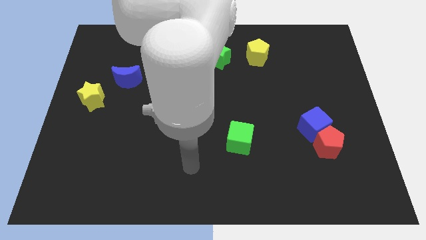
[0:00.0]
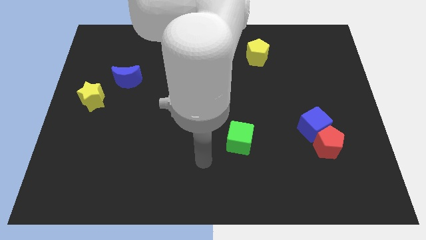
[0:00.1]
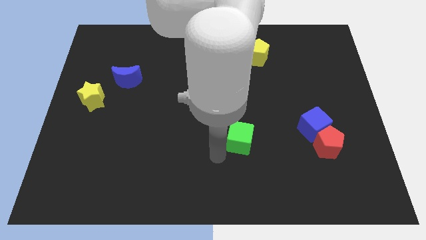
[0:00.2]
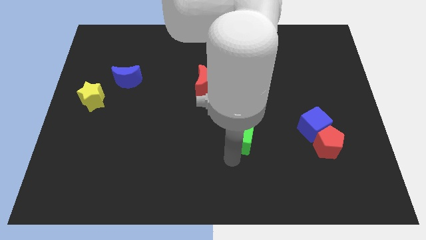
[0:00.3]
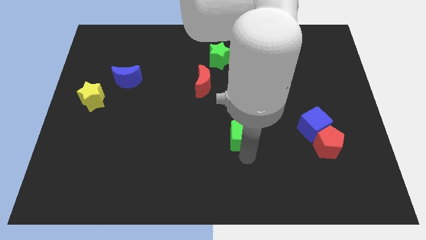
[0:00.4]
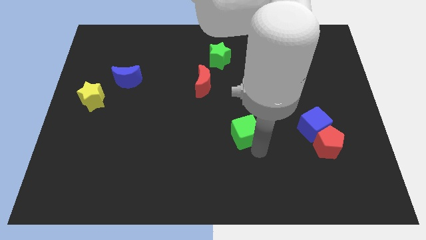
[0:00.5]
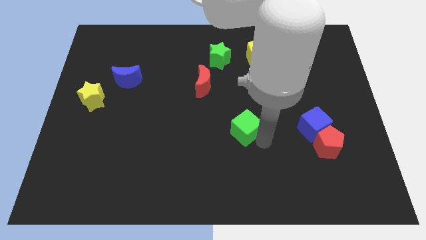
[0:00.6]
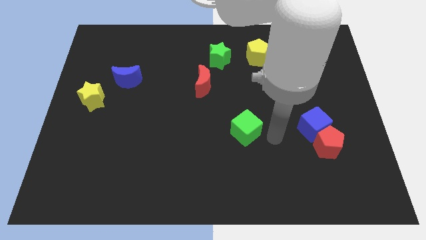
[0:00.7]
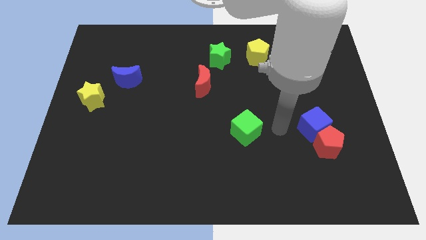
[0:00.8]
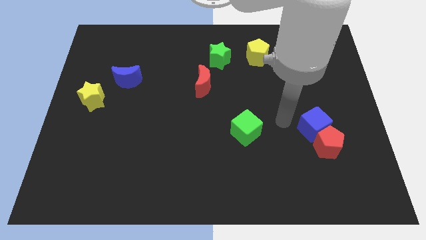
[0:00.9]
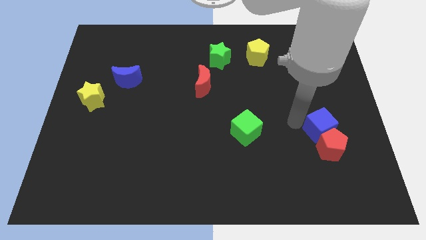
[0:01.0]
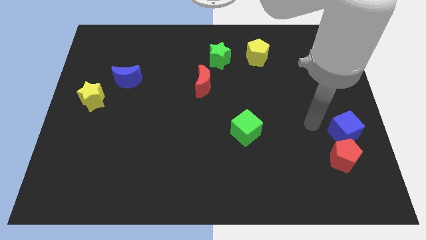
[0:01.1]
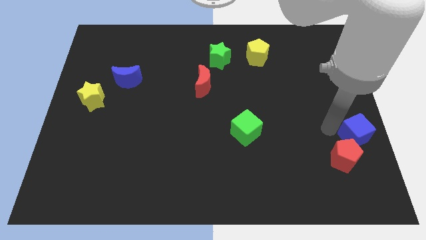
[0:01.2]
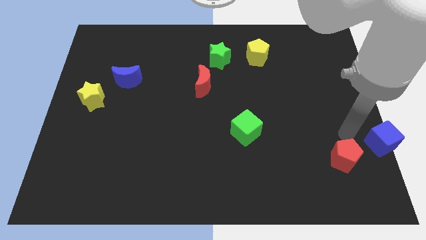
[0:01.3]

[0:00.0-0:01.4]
move the red pentagon away from the blue cube

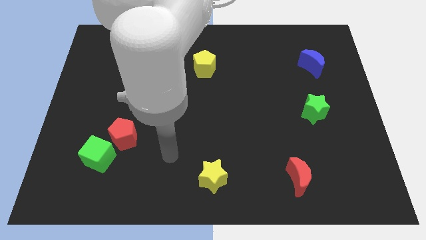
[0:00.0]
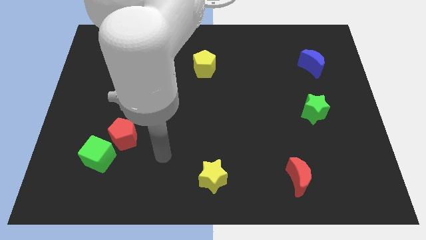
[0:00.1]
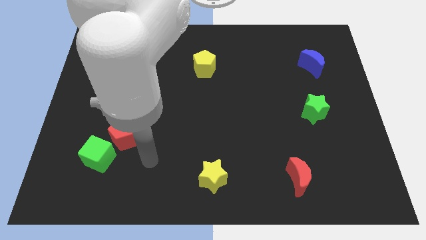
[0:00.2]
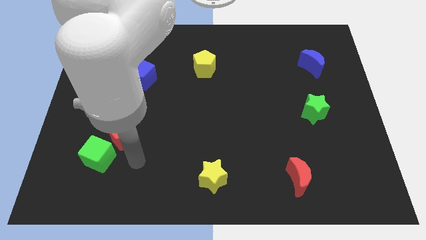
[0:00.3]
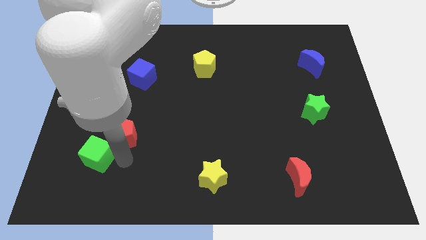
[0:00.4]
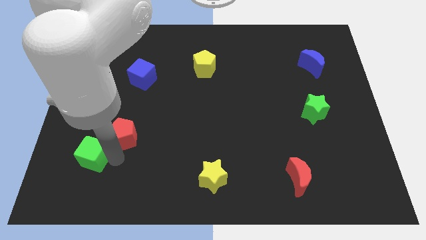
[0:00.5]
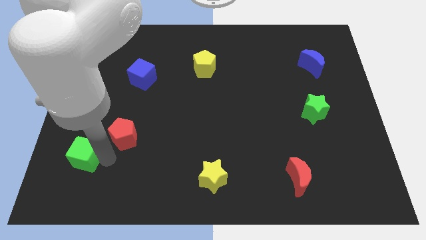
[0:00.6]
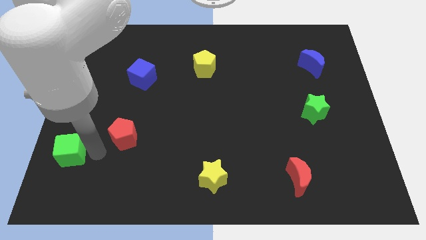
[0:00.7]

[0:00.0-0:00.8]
pull the red pentagon apart from the green cube

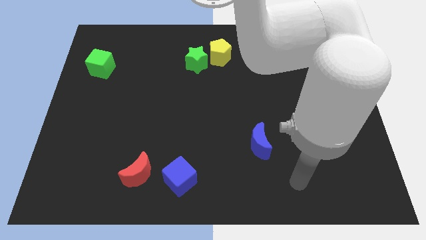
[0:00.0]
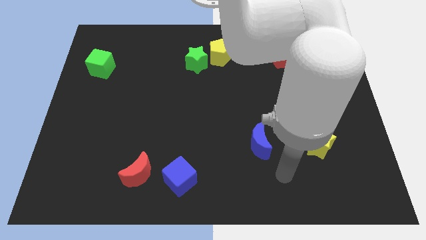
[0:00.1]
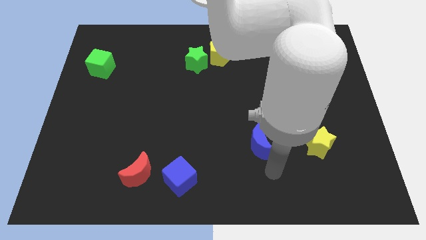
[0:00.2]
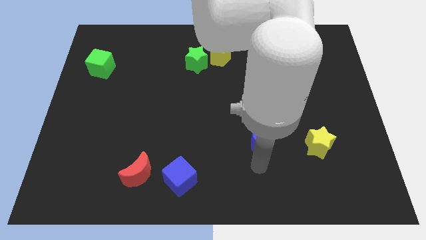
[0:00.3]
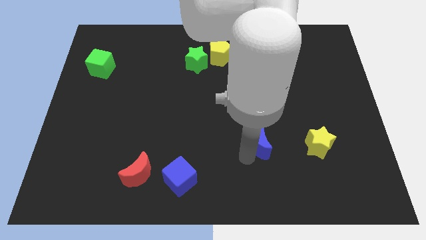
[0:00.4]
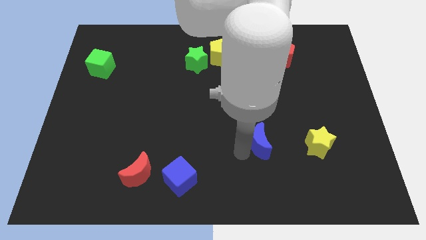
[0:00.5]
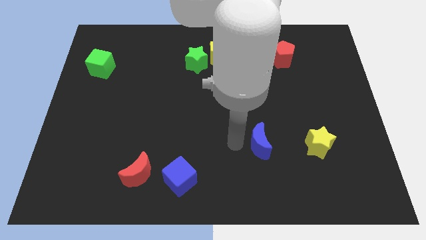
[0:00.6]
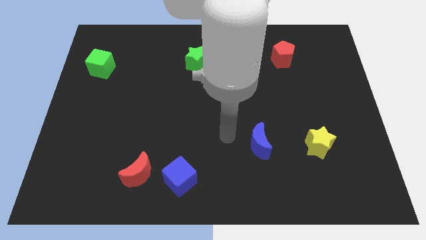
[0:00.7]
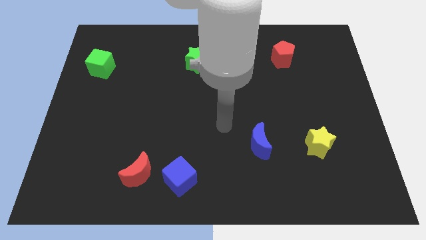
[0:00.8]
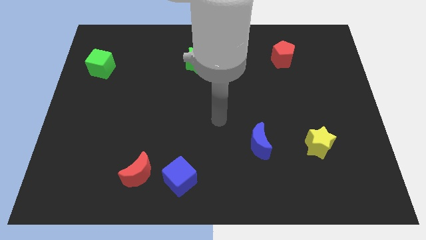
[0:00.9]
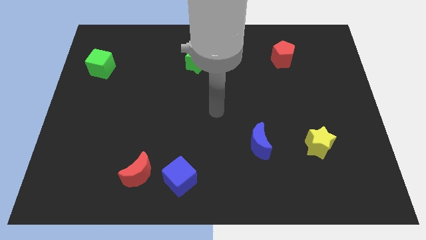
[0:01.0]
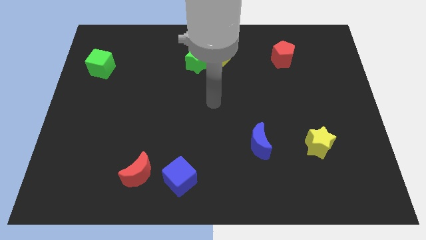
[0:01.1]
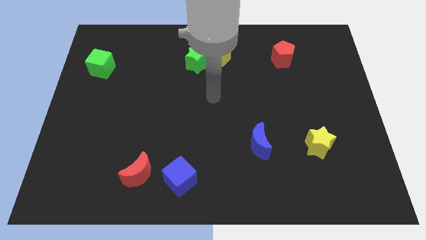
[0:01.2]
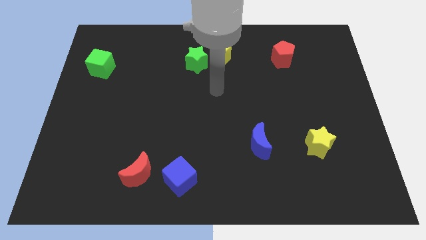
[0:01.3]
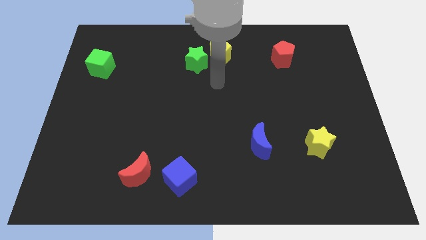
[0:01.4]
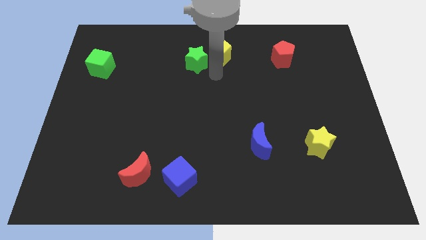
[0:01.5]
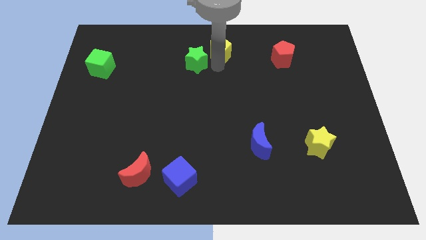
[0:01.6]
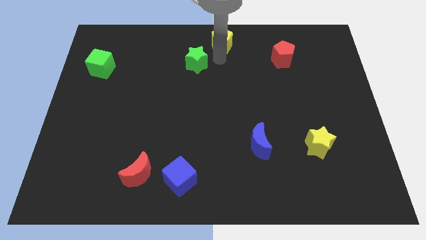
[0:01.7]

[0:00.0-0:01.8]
move the green star away from the yellow pentagon

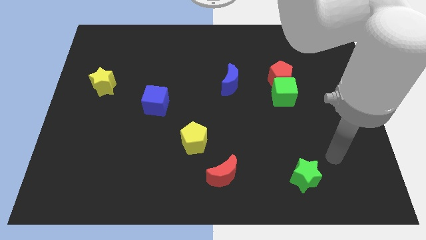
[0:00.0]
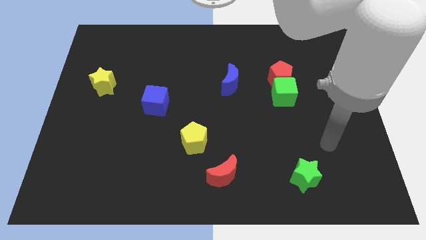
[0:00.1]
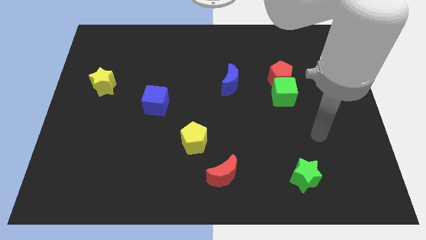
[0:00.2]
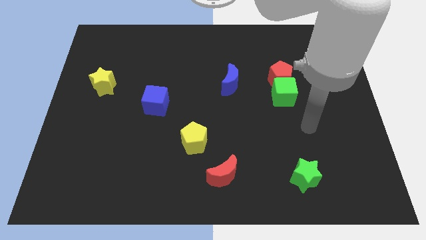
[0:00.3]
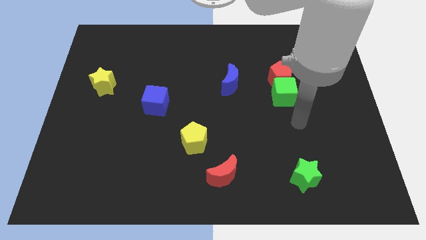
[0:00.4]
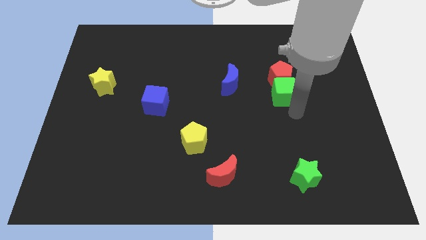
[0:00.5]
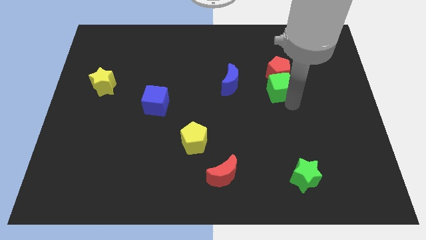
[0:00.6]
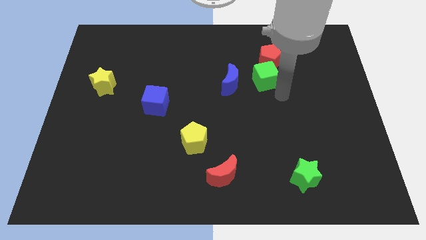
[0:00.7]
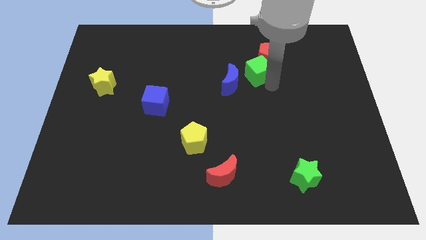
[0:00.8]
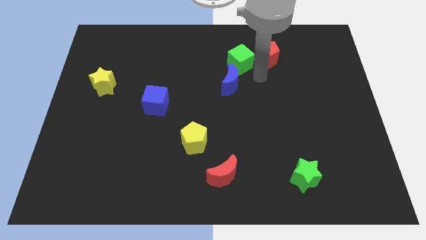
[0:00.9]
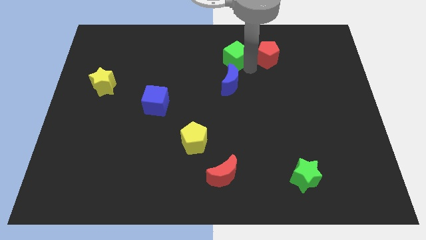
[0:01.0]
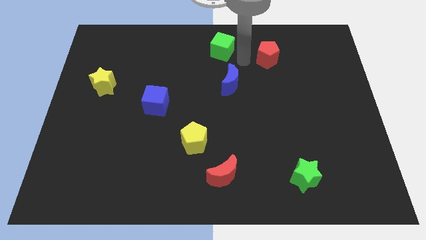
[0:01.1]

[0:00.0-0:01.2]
separate the red pentagon from the green cube

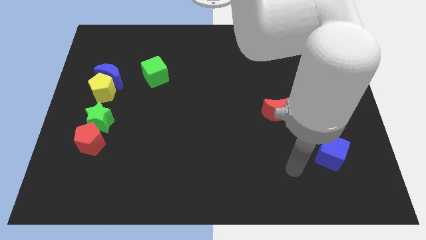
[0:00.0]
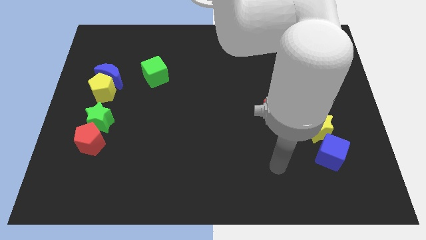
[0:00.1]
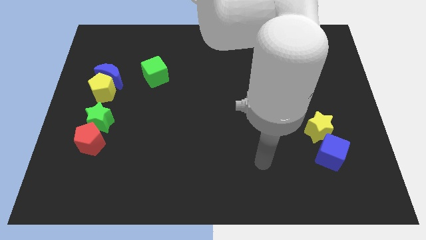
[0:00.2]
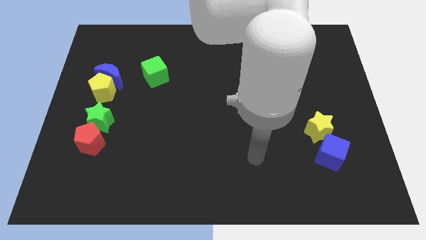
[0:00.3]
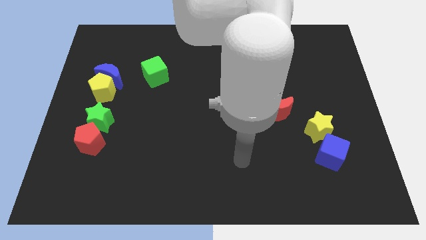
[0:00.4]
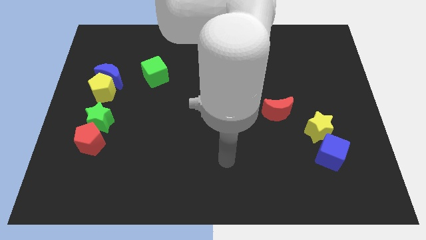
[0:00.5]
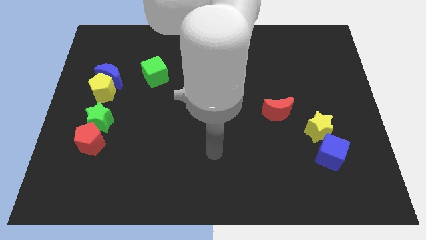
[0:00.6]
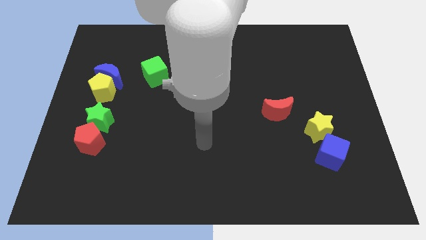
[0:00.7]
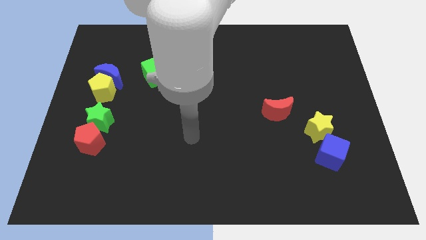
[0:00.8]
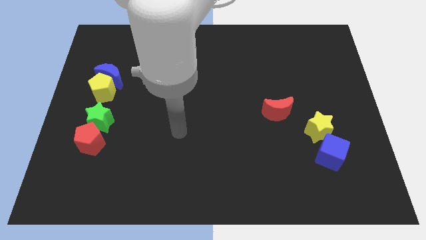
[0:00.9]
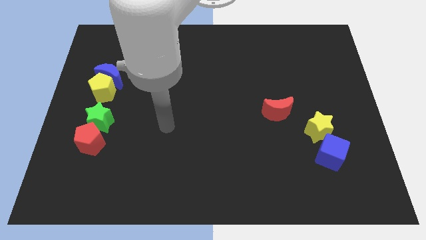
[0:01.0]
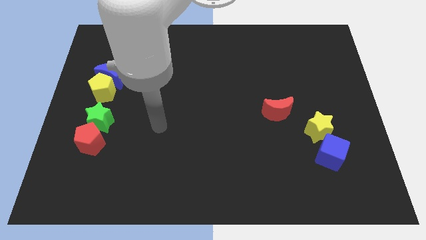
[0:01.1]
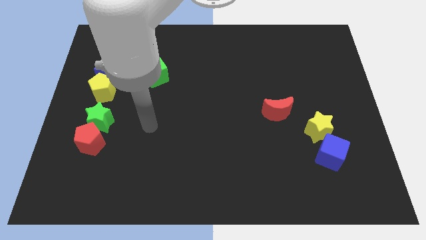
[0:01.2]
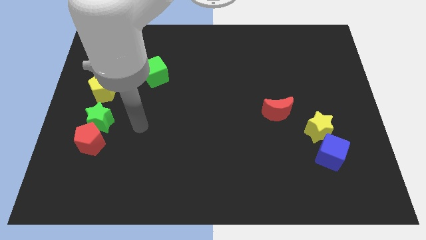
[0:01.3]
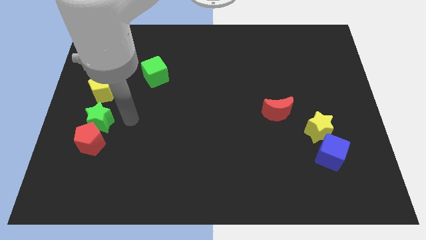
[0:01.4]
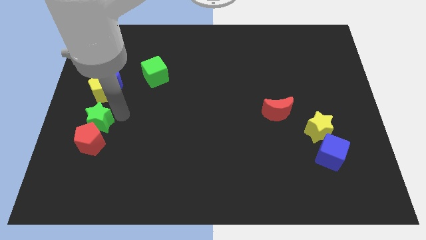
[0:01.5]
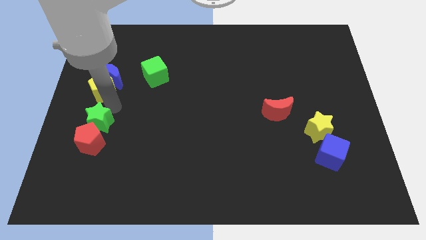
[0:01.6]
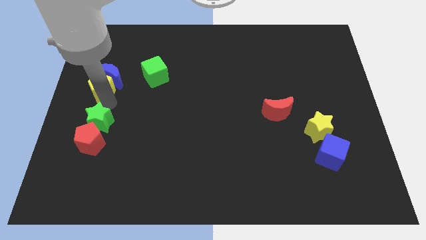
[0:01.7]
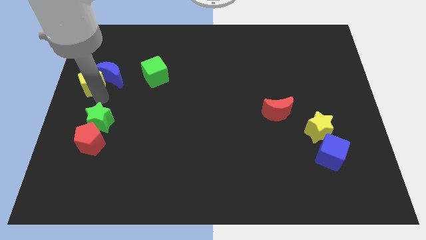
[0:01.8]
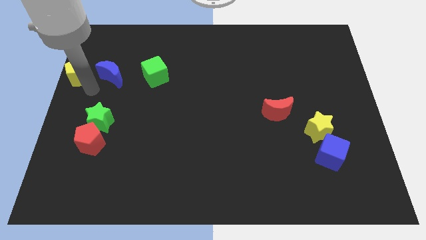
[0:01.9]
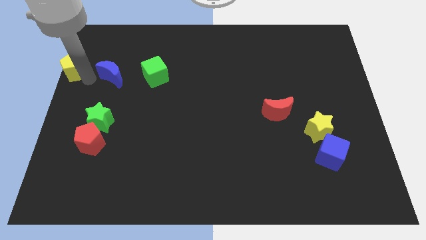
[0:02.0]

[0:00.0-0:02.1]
move the blue moon away from the yellow pentagon

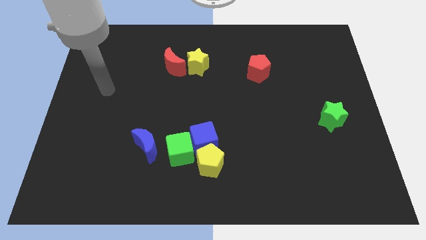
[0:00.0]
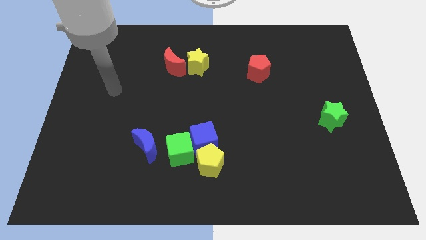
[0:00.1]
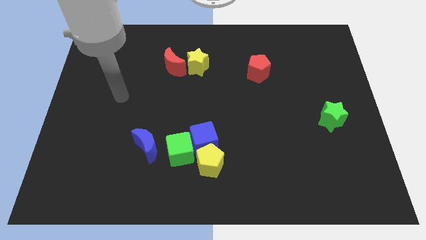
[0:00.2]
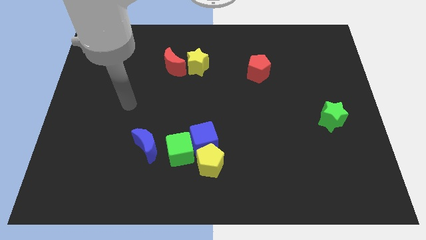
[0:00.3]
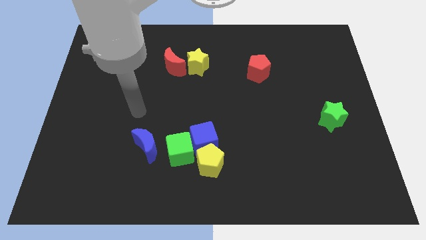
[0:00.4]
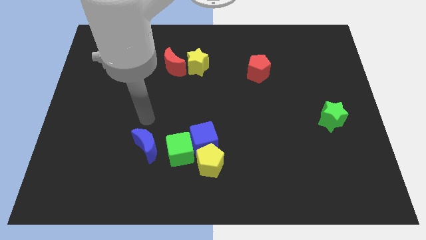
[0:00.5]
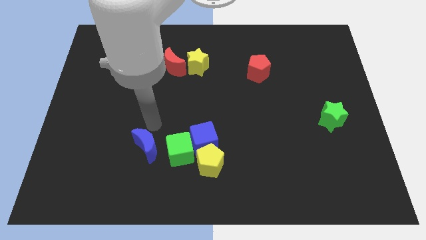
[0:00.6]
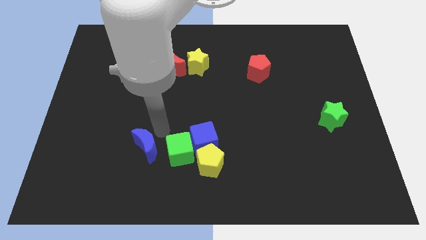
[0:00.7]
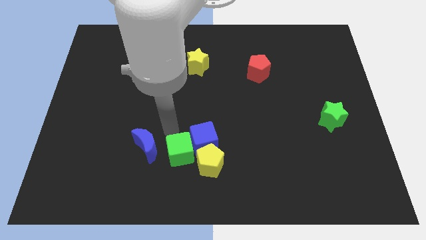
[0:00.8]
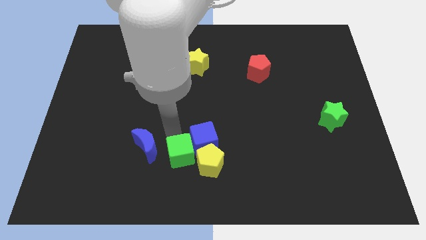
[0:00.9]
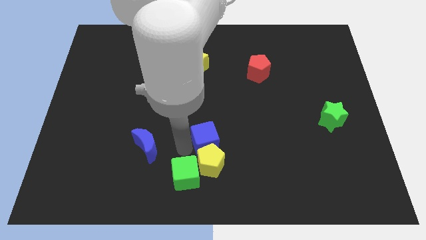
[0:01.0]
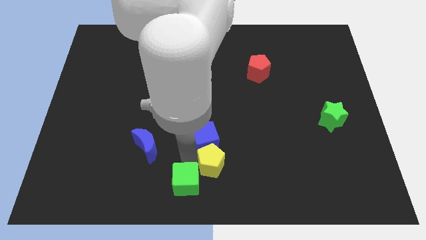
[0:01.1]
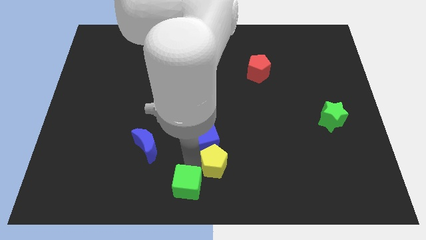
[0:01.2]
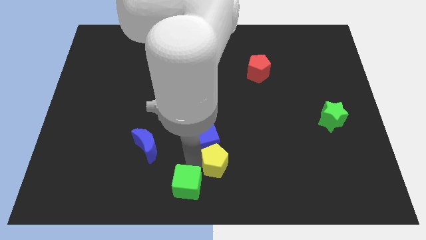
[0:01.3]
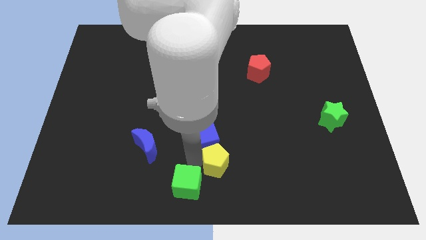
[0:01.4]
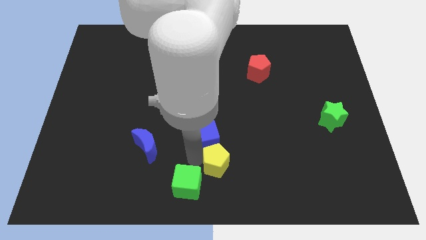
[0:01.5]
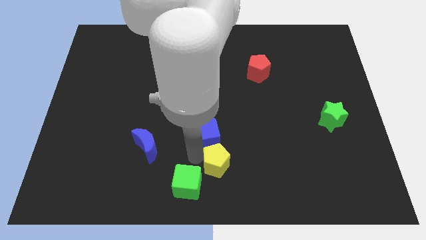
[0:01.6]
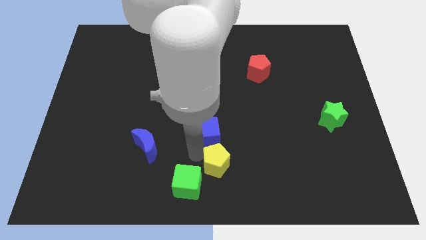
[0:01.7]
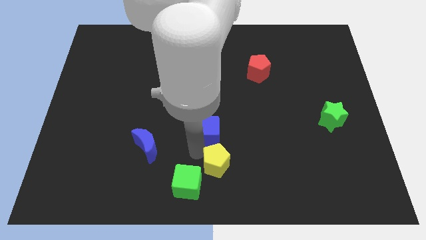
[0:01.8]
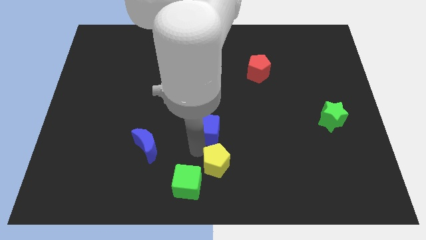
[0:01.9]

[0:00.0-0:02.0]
separate the blue cube from the yellow pentagon and green cube
